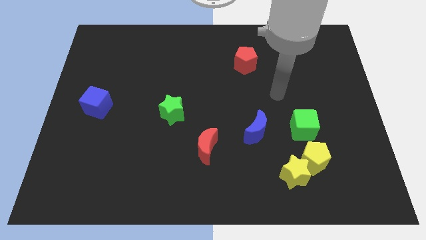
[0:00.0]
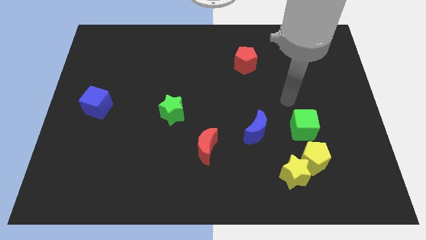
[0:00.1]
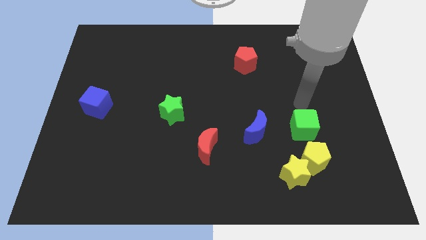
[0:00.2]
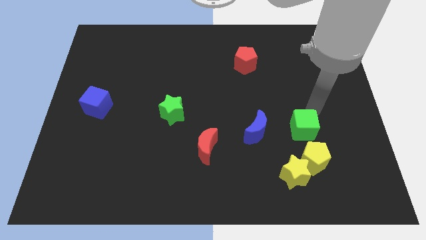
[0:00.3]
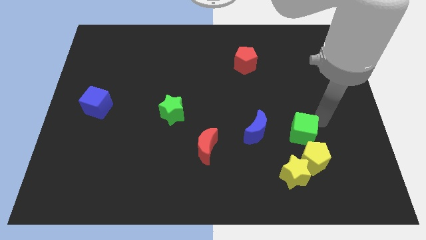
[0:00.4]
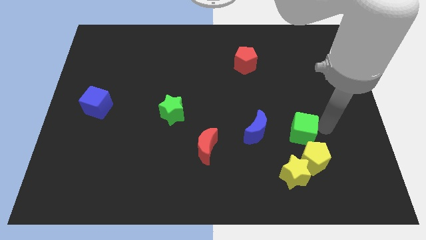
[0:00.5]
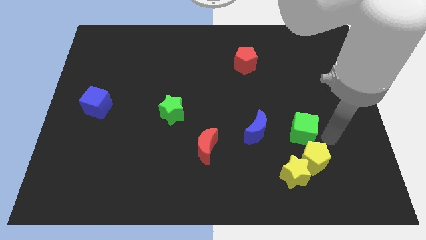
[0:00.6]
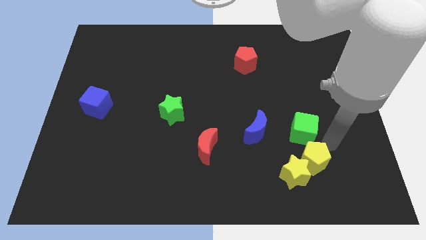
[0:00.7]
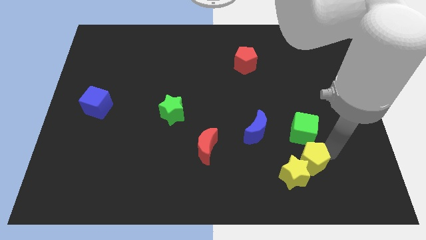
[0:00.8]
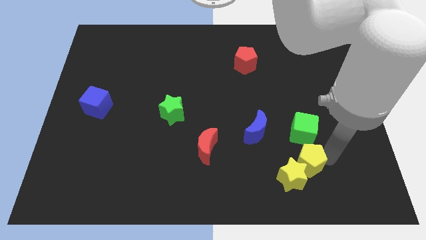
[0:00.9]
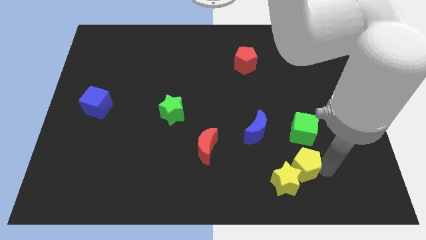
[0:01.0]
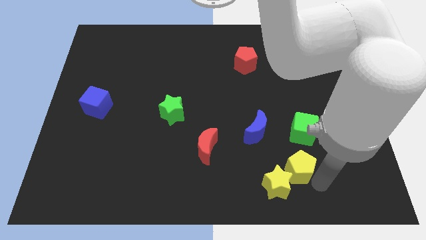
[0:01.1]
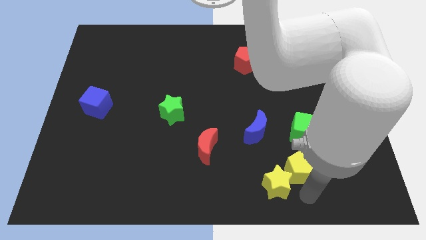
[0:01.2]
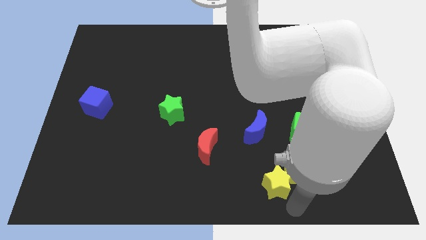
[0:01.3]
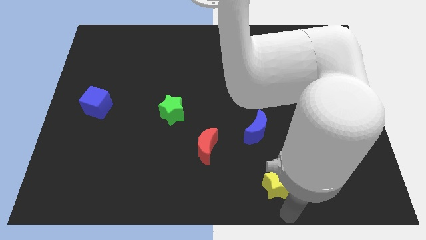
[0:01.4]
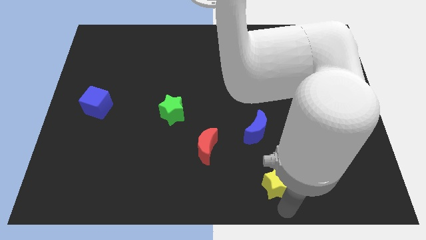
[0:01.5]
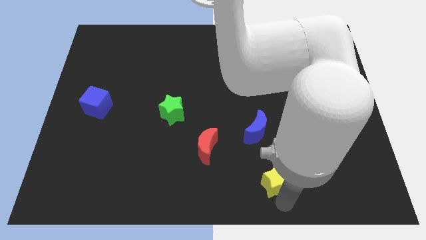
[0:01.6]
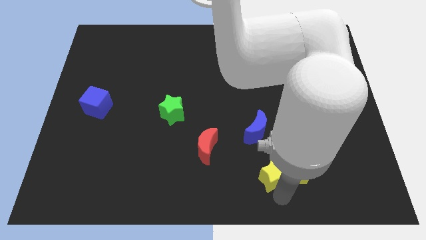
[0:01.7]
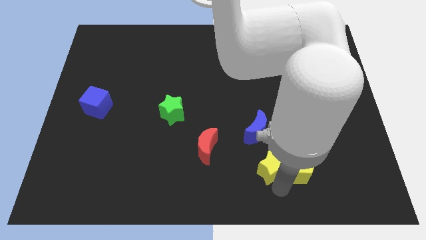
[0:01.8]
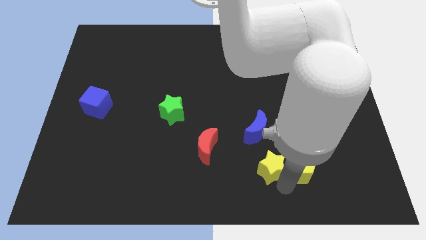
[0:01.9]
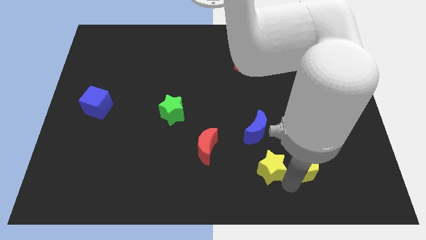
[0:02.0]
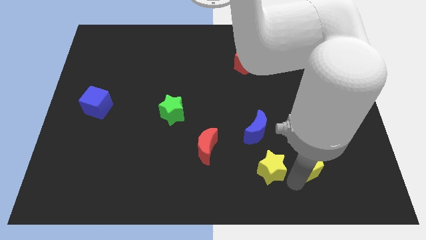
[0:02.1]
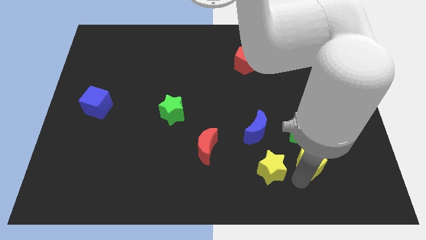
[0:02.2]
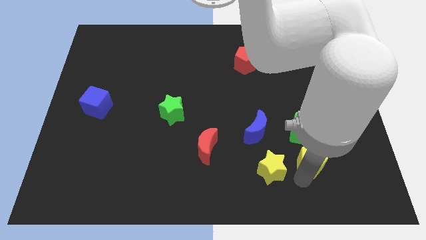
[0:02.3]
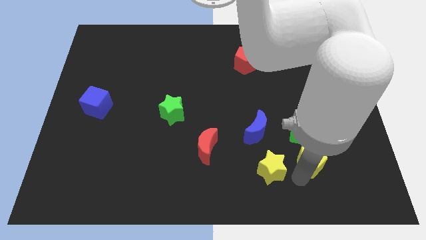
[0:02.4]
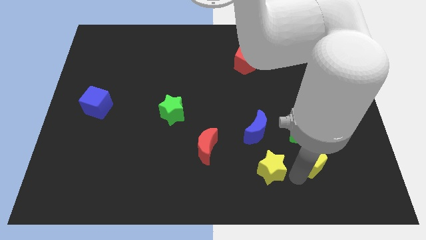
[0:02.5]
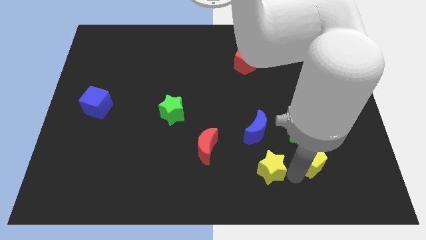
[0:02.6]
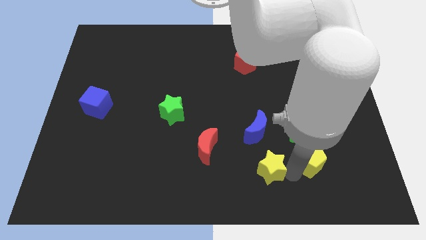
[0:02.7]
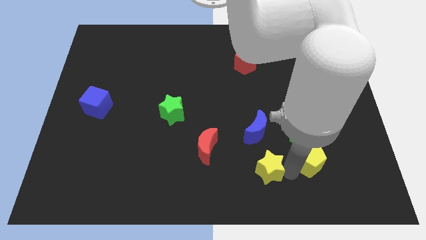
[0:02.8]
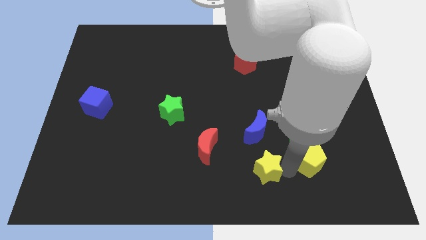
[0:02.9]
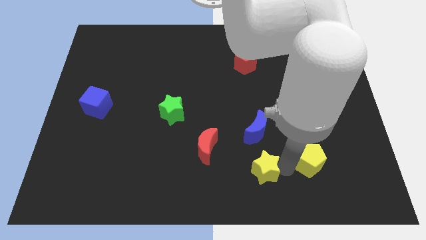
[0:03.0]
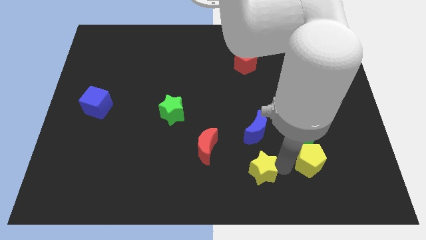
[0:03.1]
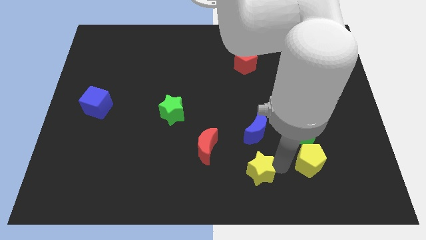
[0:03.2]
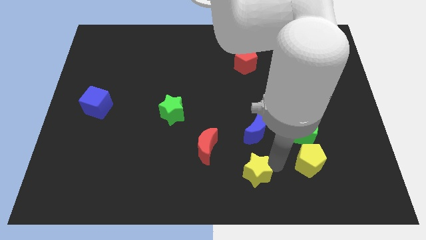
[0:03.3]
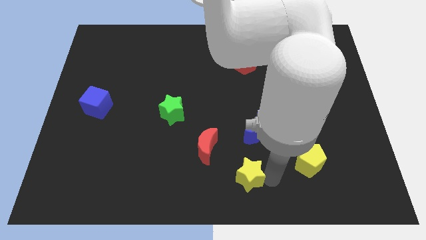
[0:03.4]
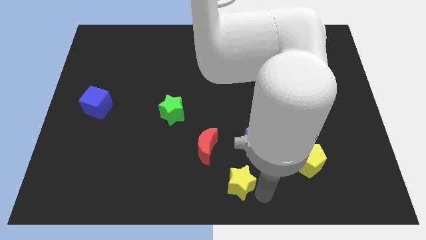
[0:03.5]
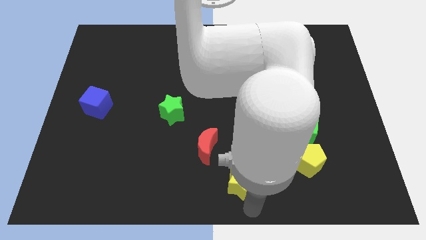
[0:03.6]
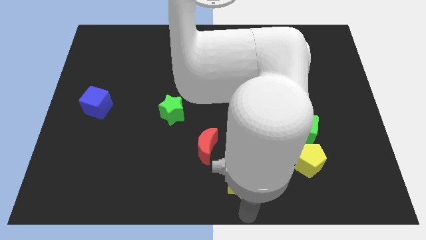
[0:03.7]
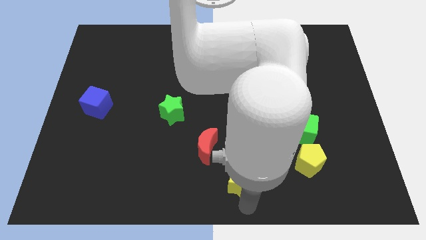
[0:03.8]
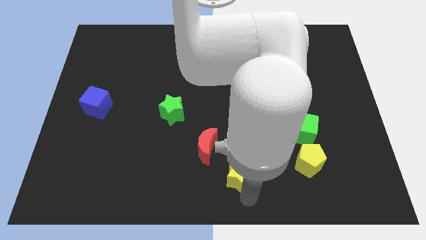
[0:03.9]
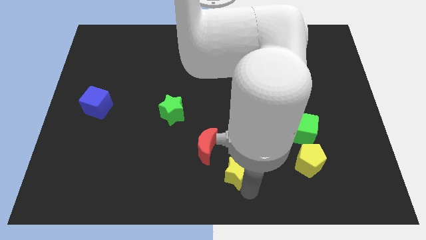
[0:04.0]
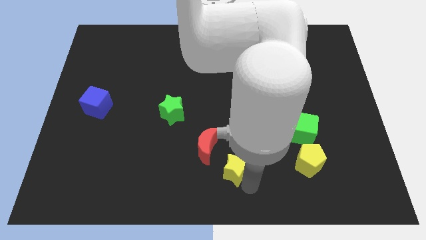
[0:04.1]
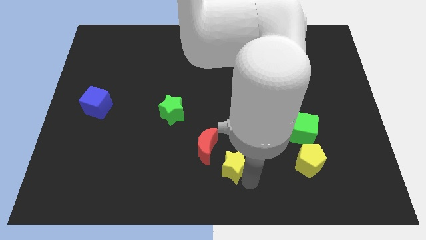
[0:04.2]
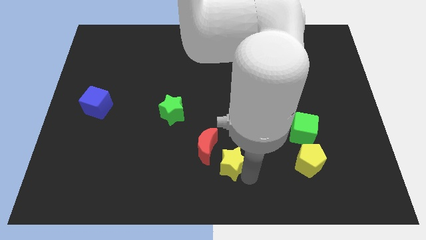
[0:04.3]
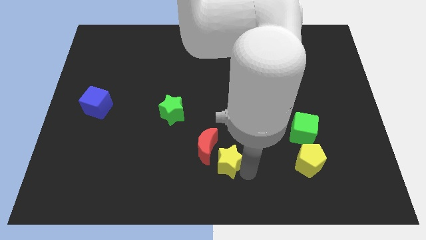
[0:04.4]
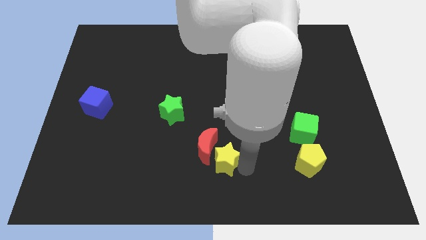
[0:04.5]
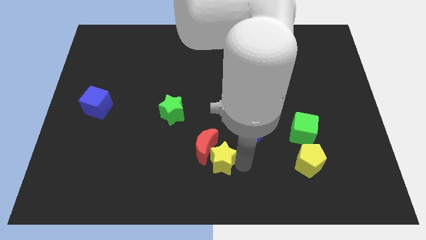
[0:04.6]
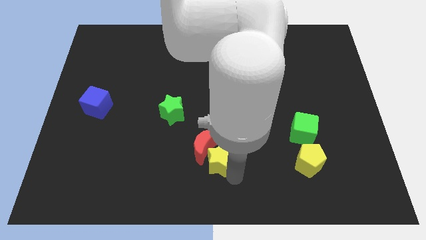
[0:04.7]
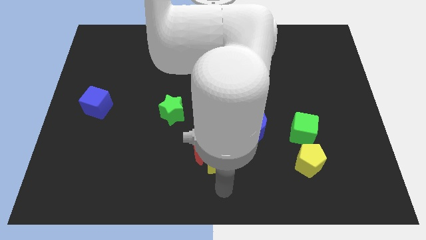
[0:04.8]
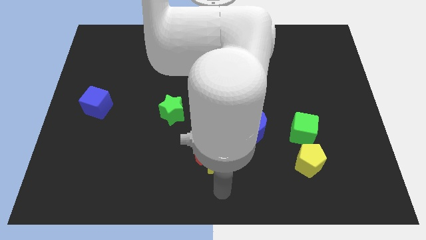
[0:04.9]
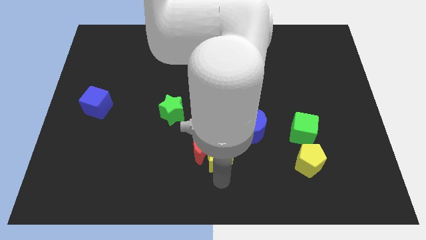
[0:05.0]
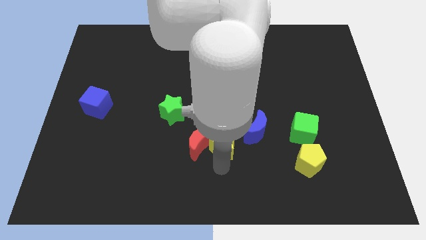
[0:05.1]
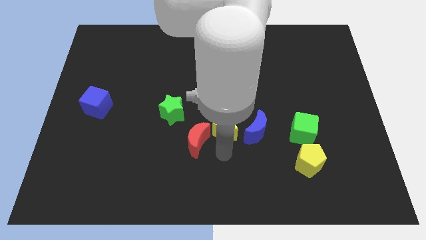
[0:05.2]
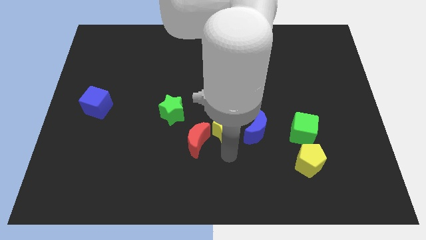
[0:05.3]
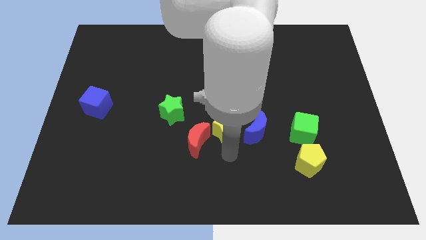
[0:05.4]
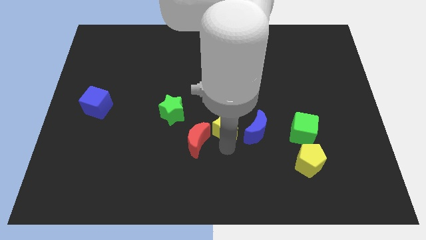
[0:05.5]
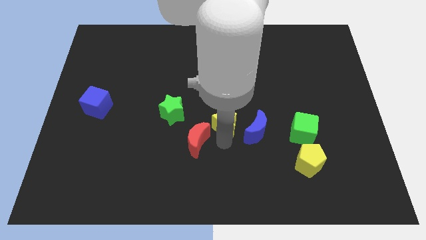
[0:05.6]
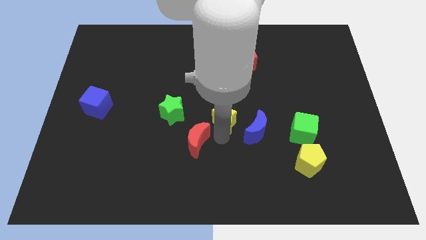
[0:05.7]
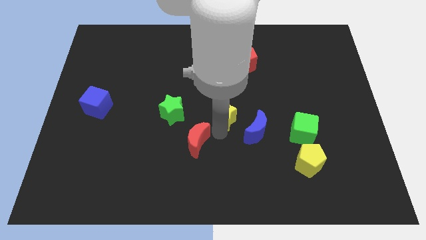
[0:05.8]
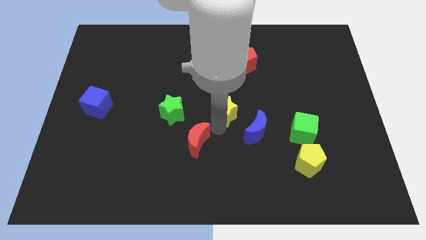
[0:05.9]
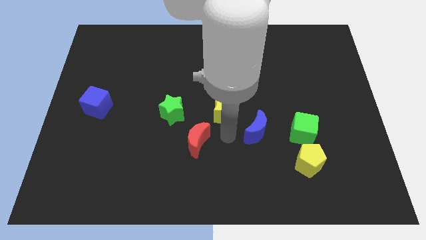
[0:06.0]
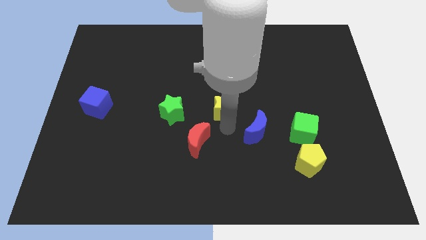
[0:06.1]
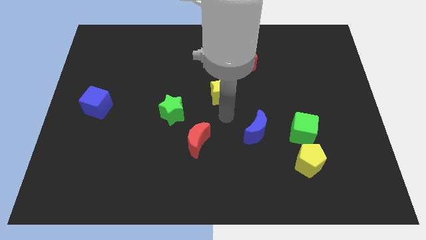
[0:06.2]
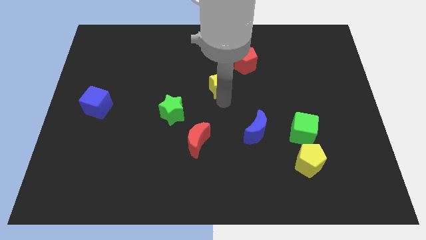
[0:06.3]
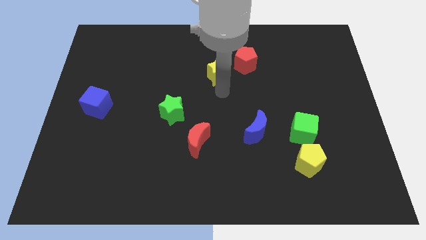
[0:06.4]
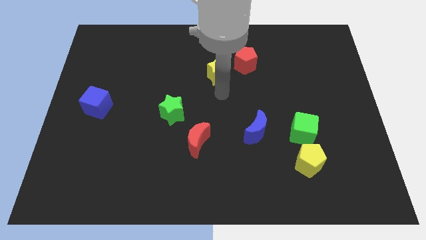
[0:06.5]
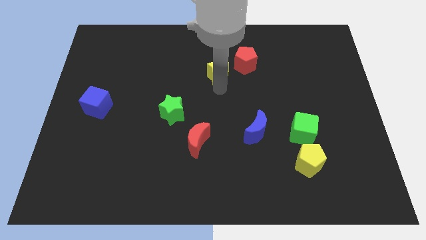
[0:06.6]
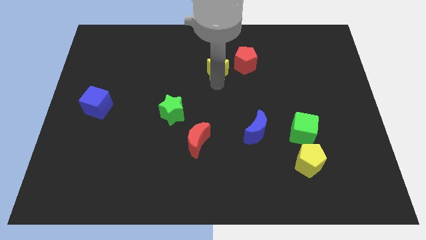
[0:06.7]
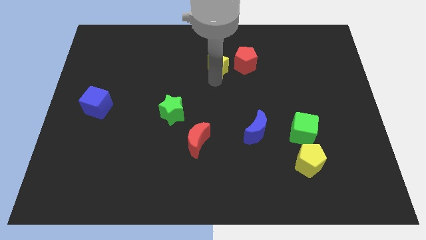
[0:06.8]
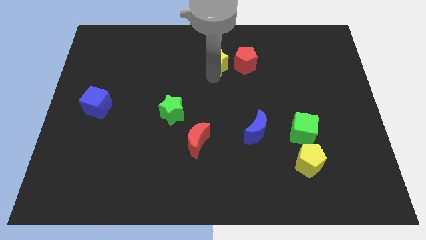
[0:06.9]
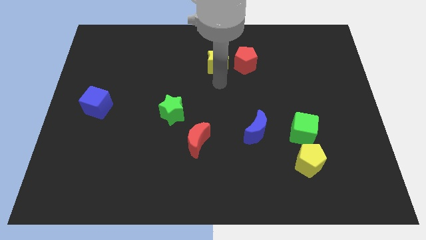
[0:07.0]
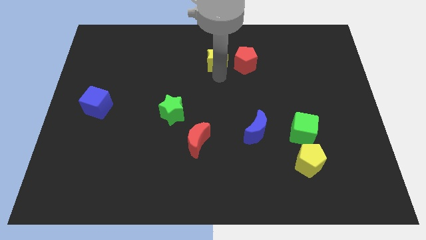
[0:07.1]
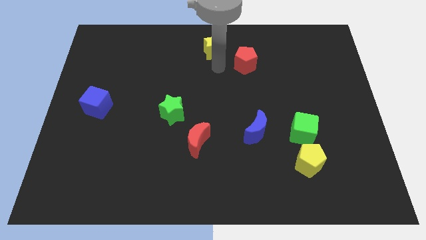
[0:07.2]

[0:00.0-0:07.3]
put the yellow star to the top
